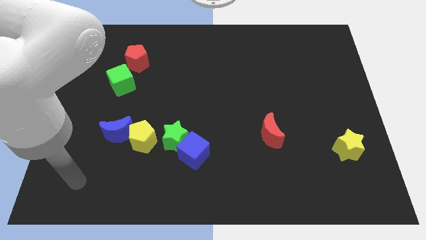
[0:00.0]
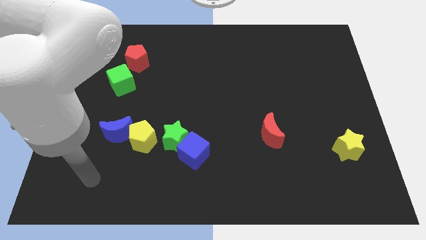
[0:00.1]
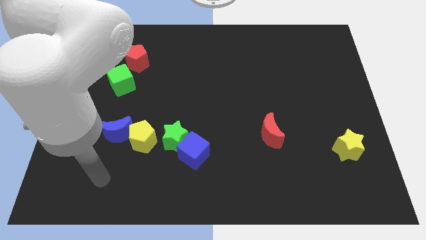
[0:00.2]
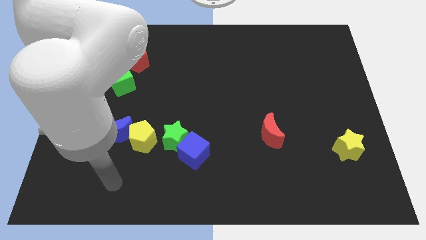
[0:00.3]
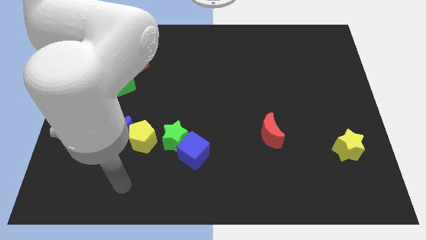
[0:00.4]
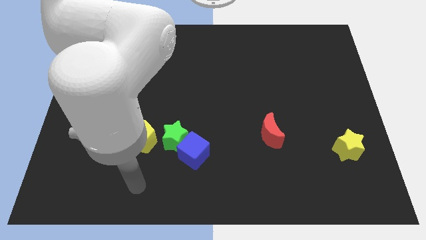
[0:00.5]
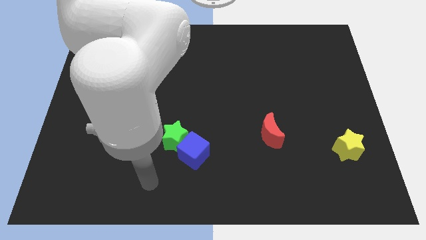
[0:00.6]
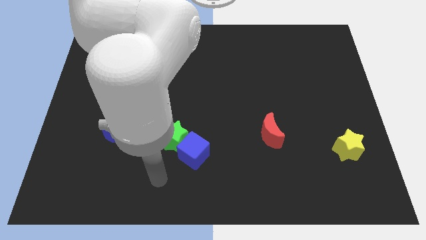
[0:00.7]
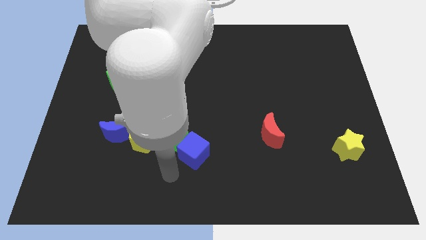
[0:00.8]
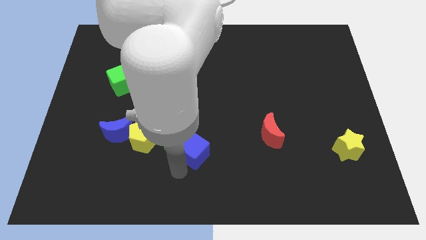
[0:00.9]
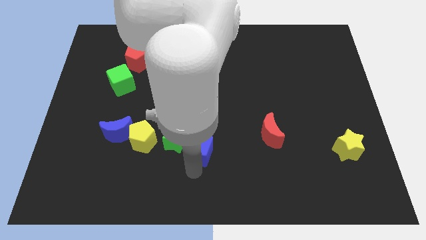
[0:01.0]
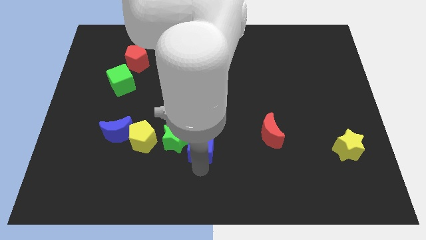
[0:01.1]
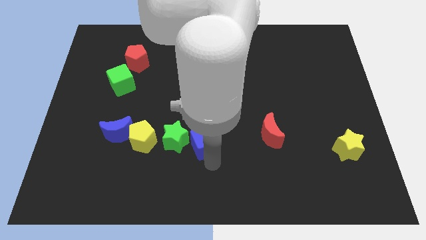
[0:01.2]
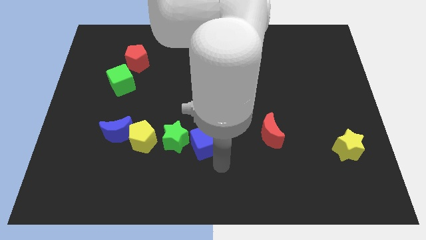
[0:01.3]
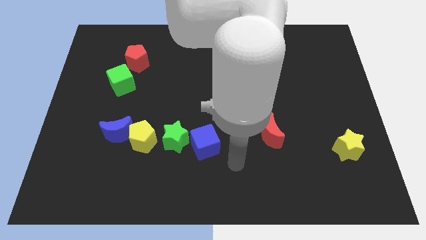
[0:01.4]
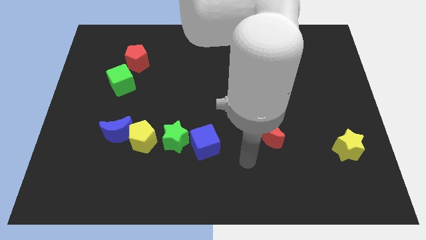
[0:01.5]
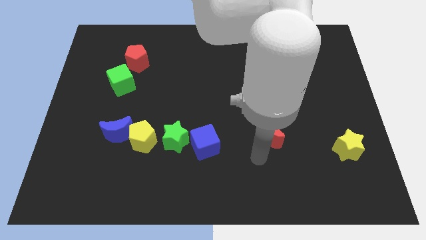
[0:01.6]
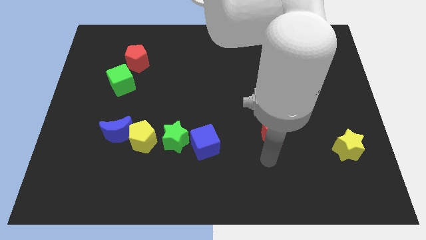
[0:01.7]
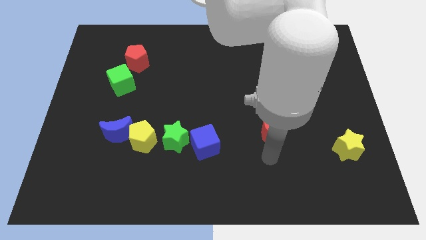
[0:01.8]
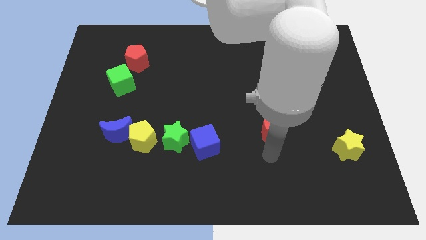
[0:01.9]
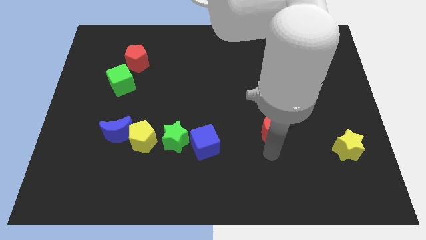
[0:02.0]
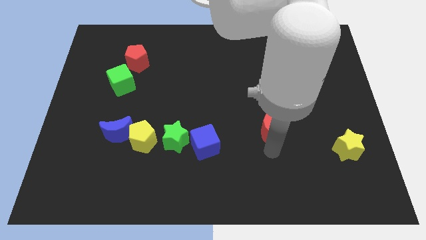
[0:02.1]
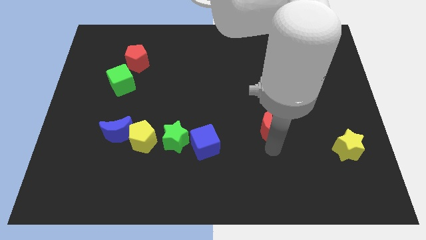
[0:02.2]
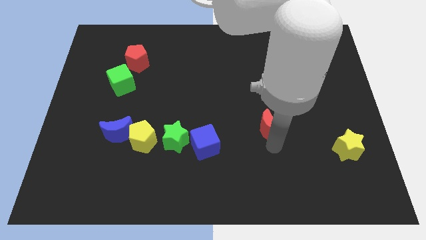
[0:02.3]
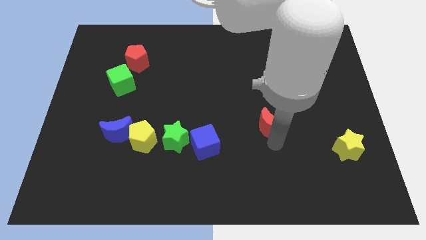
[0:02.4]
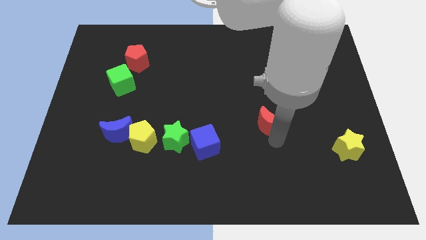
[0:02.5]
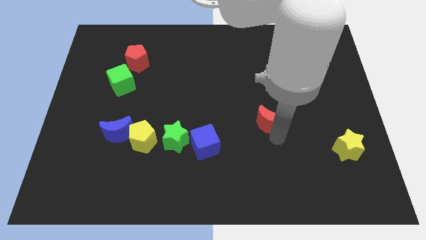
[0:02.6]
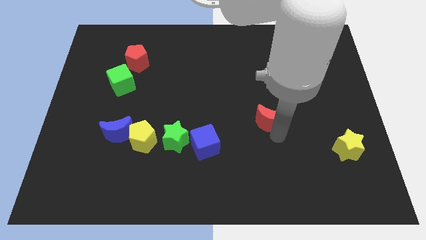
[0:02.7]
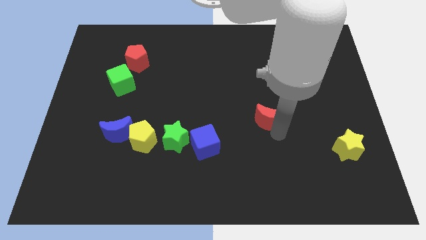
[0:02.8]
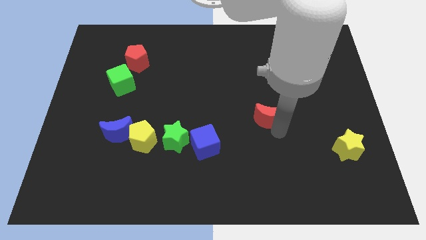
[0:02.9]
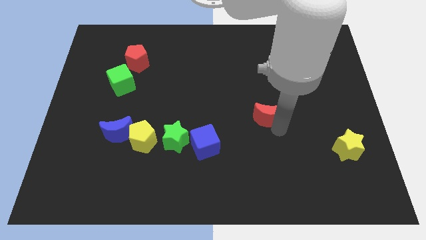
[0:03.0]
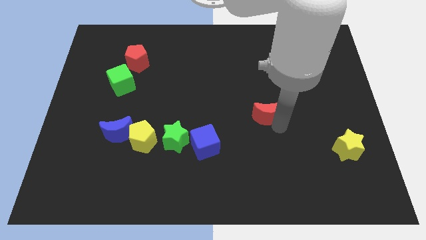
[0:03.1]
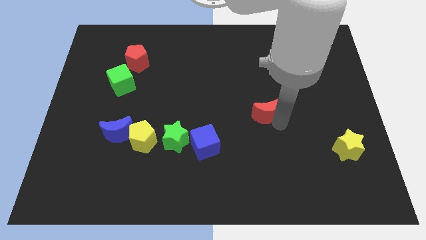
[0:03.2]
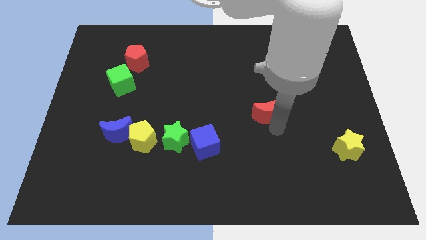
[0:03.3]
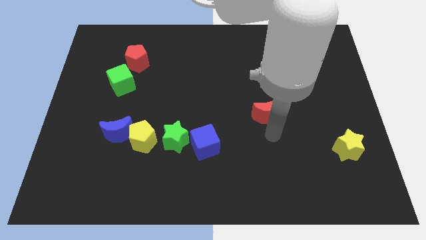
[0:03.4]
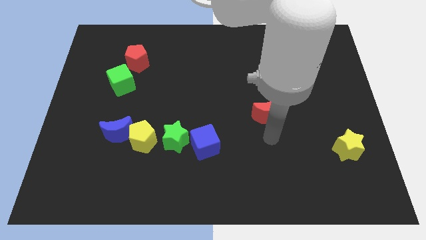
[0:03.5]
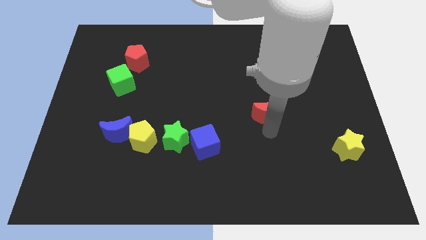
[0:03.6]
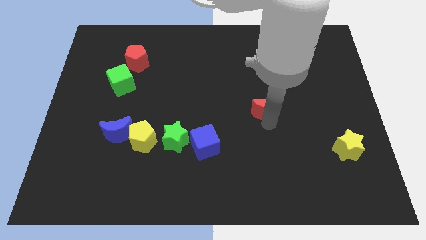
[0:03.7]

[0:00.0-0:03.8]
slightly move the red moon upwards

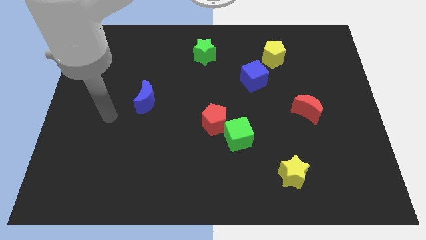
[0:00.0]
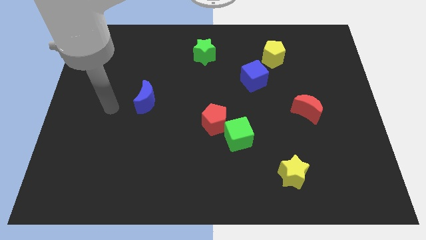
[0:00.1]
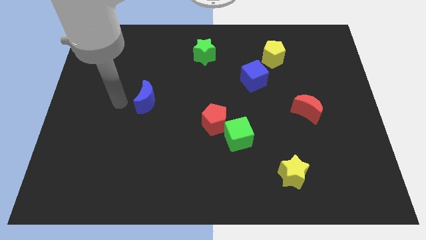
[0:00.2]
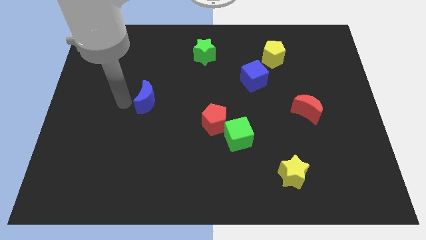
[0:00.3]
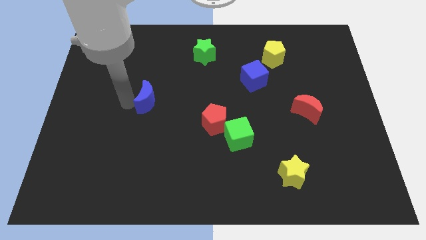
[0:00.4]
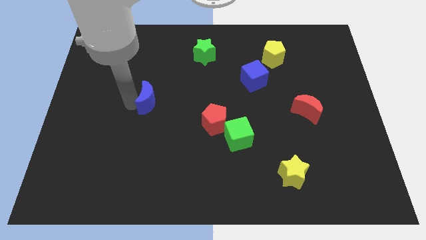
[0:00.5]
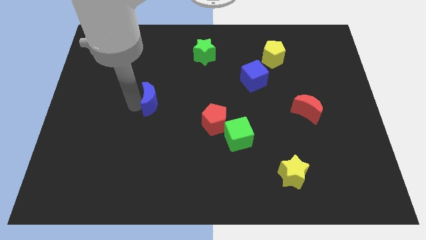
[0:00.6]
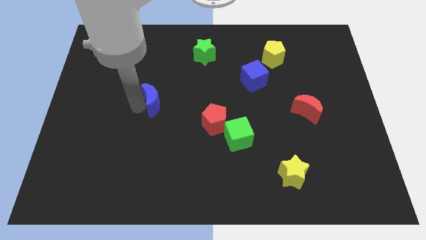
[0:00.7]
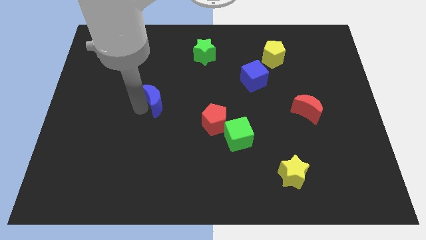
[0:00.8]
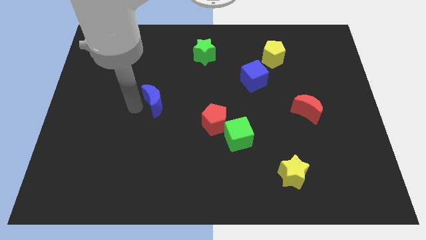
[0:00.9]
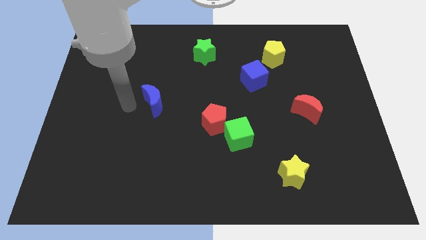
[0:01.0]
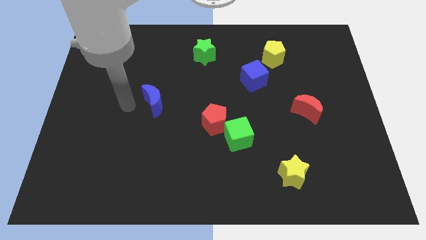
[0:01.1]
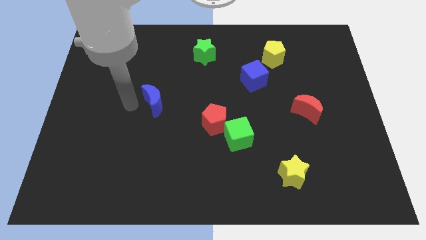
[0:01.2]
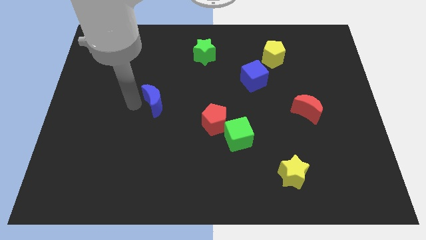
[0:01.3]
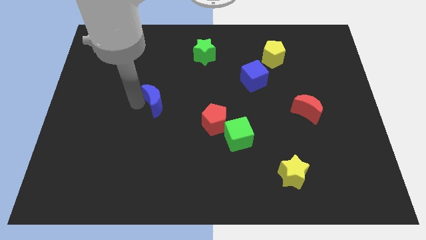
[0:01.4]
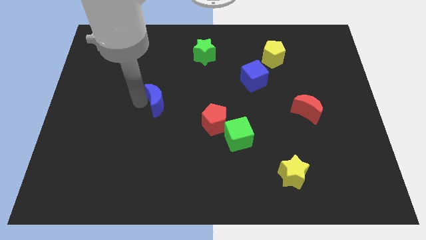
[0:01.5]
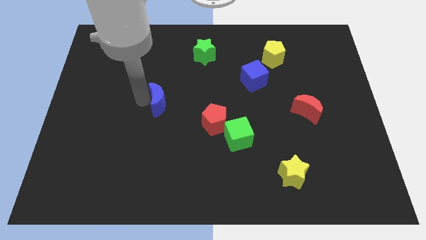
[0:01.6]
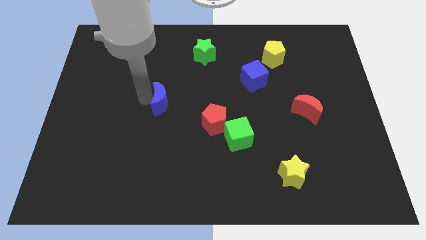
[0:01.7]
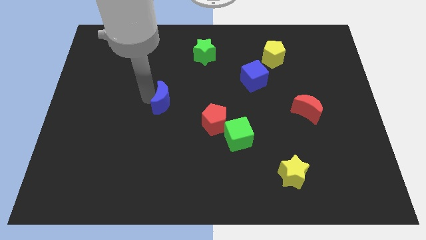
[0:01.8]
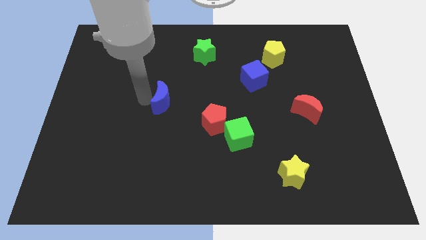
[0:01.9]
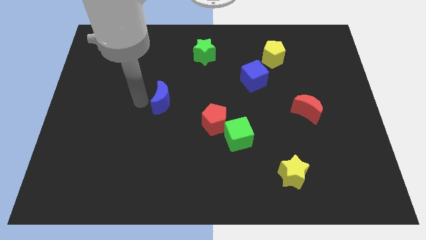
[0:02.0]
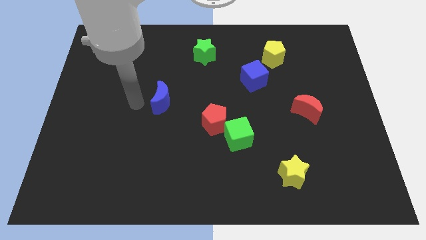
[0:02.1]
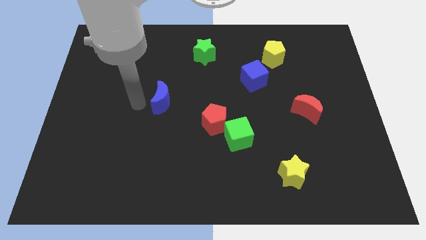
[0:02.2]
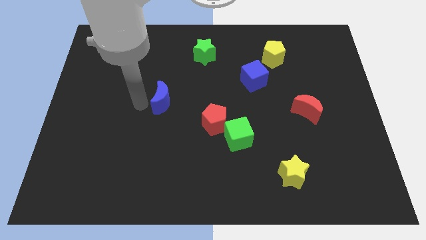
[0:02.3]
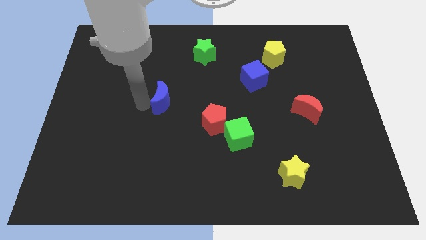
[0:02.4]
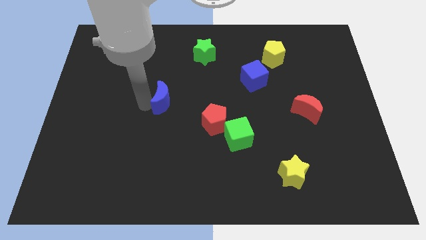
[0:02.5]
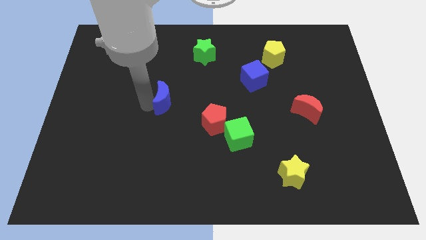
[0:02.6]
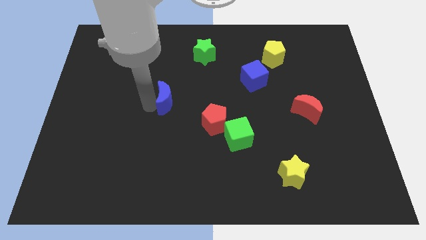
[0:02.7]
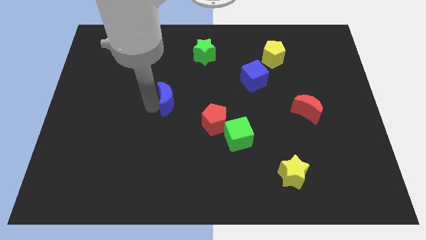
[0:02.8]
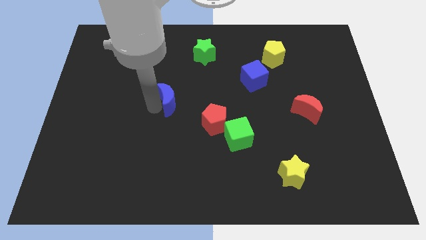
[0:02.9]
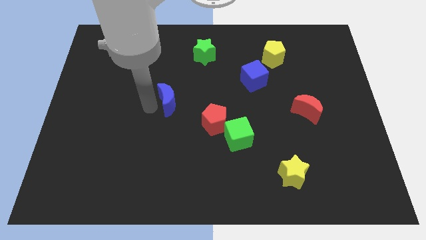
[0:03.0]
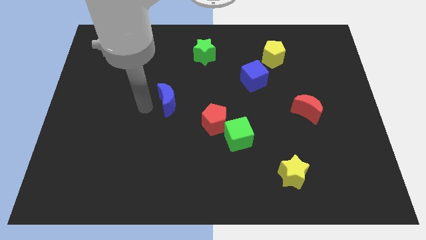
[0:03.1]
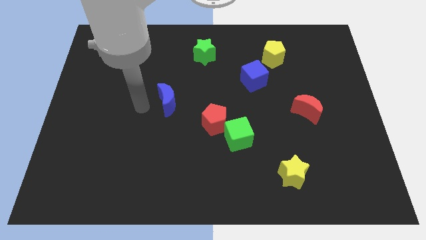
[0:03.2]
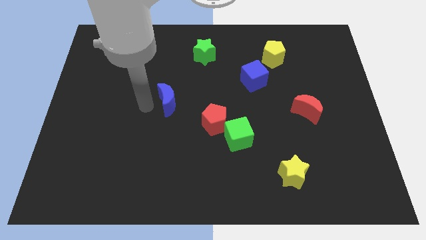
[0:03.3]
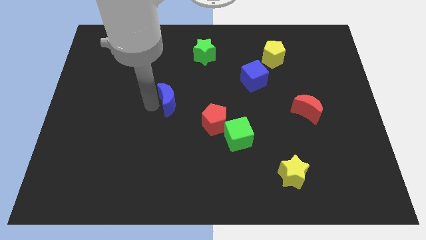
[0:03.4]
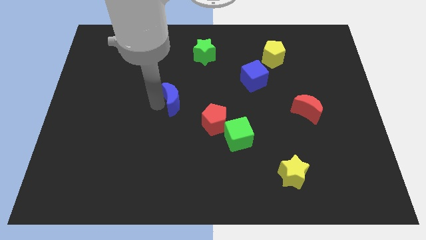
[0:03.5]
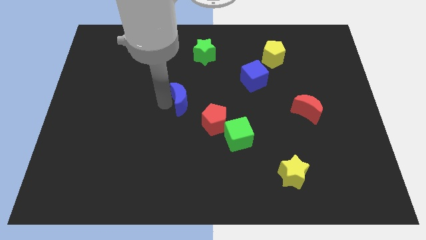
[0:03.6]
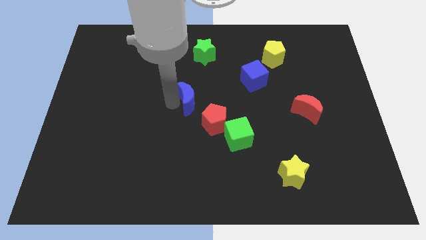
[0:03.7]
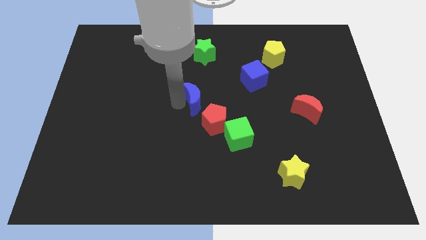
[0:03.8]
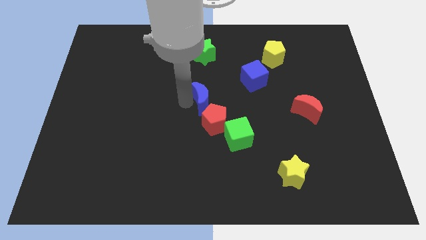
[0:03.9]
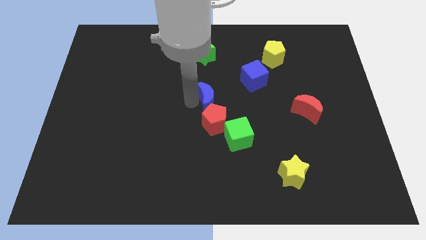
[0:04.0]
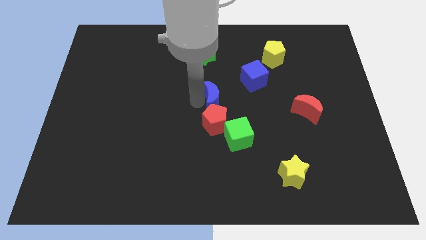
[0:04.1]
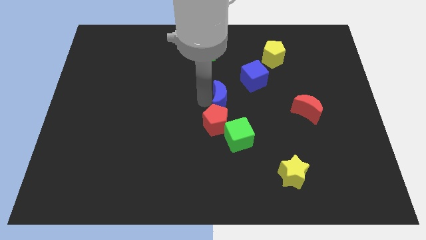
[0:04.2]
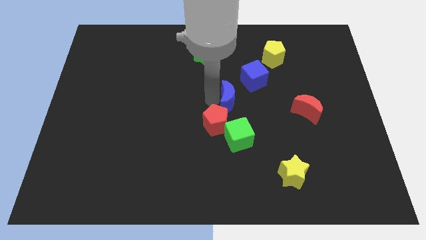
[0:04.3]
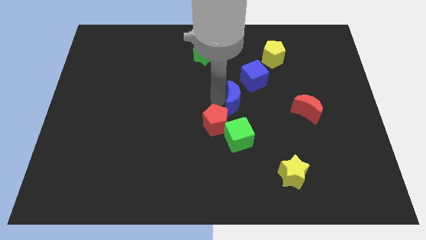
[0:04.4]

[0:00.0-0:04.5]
push the blue moon to the right

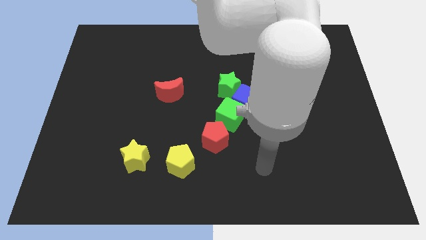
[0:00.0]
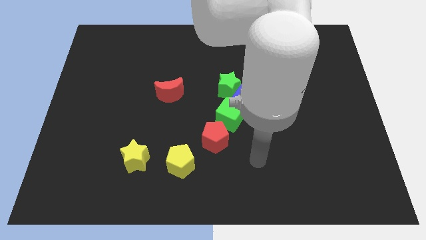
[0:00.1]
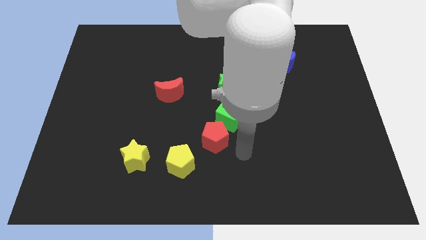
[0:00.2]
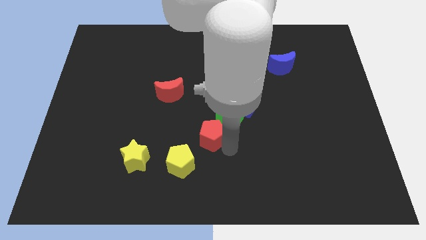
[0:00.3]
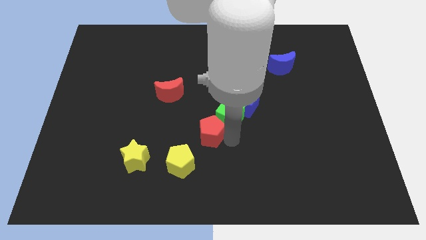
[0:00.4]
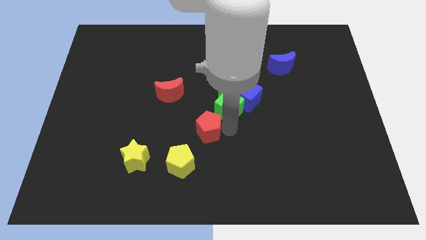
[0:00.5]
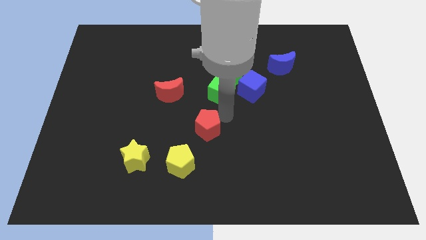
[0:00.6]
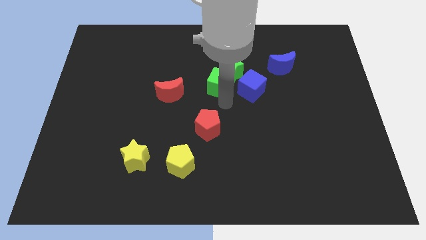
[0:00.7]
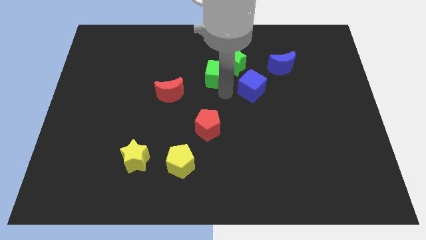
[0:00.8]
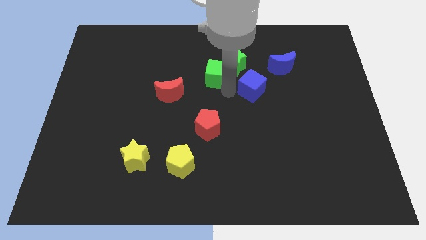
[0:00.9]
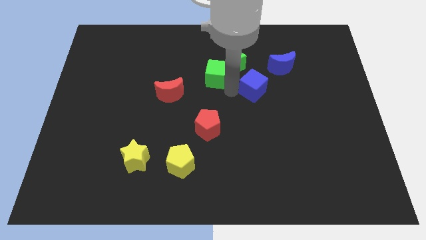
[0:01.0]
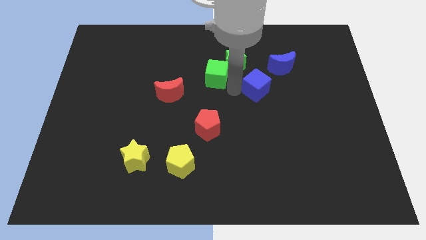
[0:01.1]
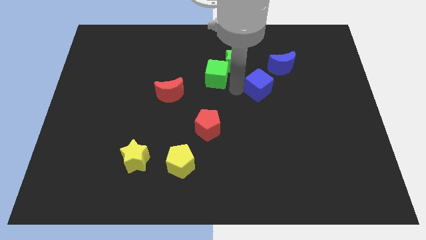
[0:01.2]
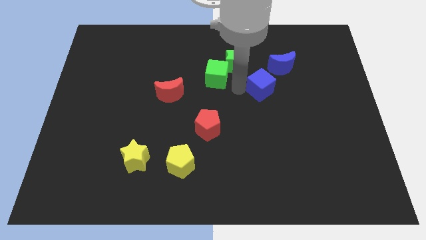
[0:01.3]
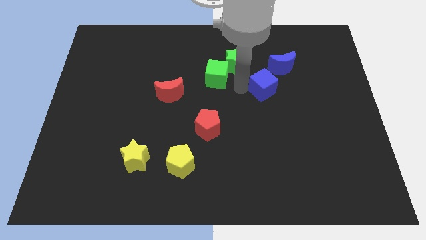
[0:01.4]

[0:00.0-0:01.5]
push the blue cube a bit upwards and right
